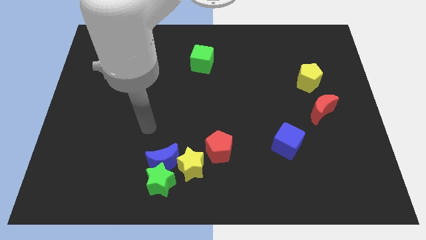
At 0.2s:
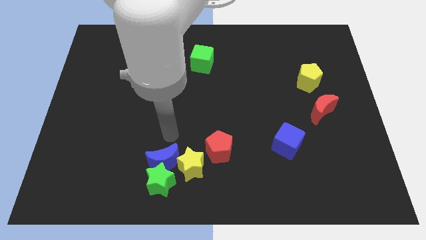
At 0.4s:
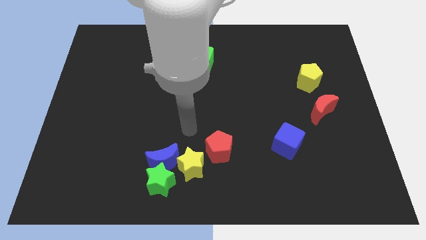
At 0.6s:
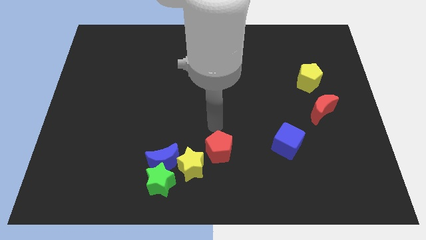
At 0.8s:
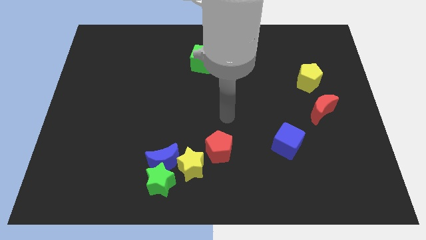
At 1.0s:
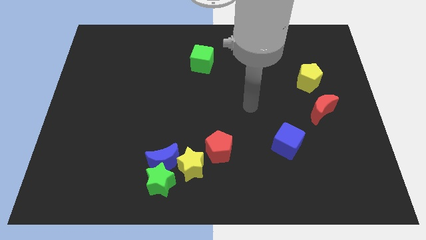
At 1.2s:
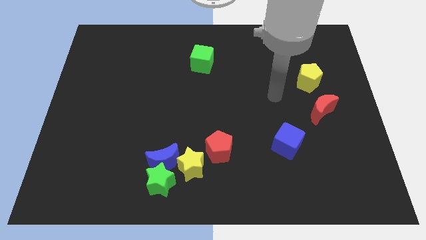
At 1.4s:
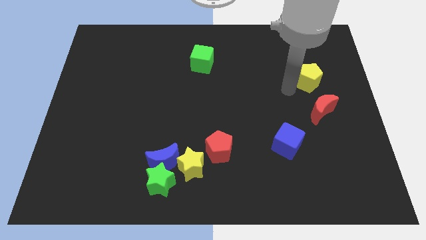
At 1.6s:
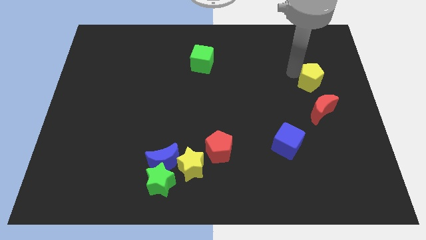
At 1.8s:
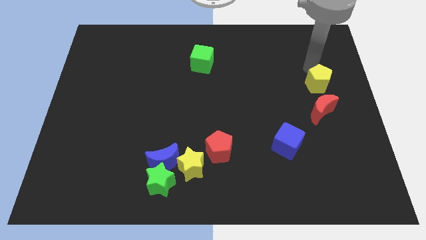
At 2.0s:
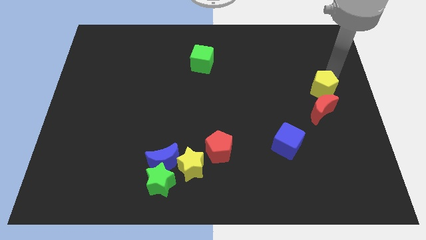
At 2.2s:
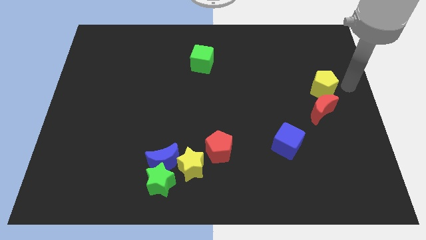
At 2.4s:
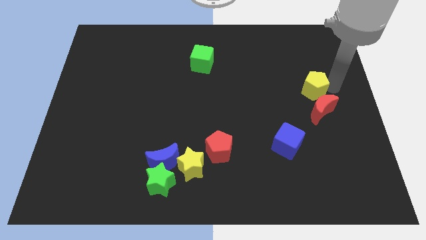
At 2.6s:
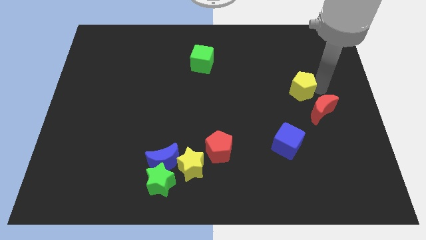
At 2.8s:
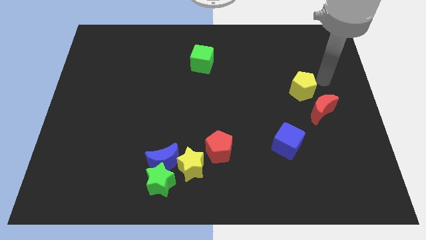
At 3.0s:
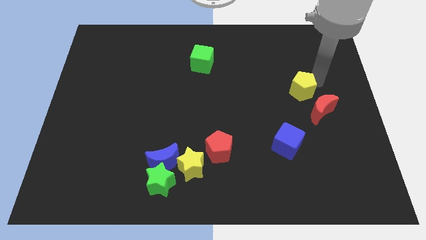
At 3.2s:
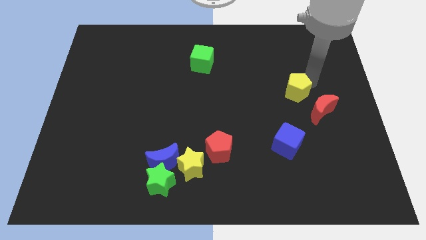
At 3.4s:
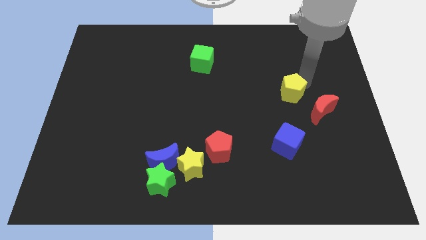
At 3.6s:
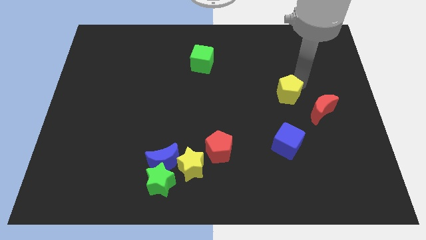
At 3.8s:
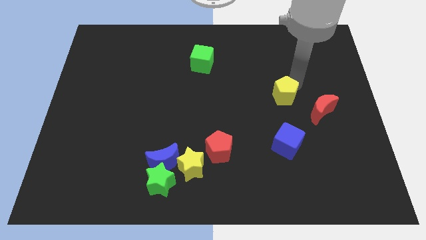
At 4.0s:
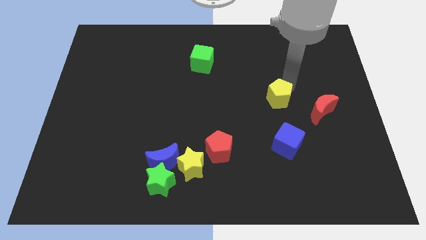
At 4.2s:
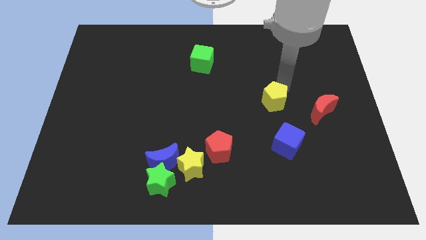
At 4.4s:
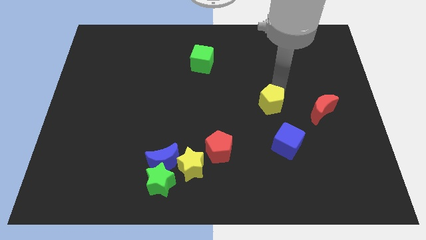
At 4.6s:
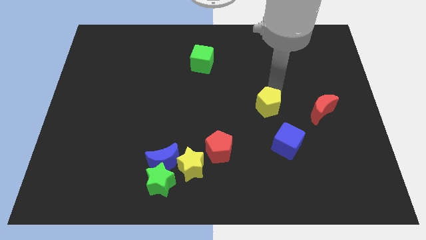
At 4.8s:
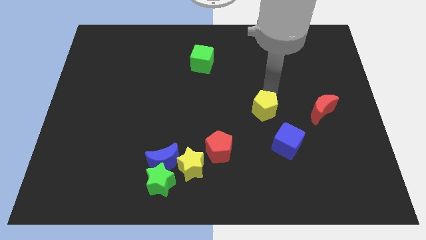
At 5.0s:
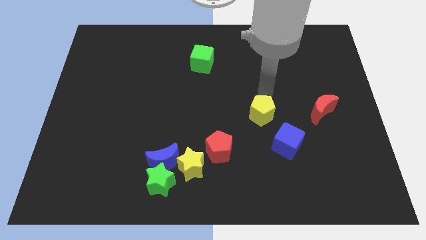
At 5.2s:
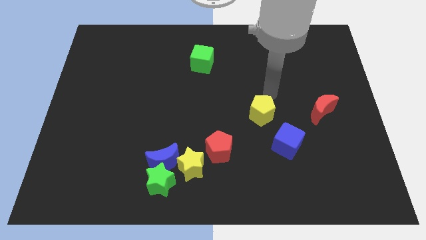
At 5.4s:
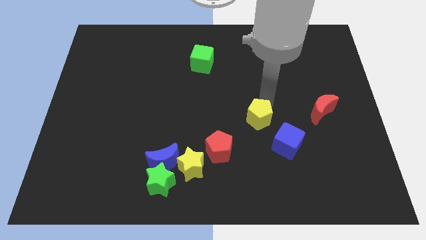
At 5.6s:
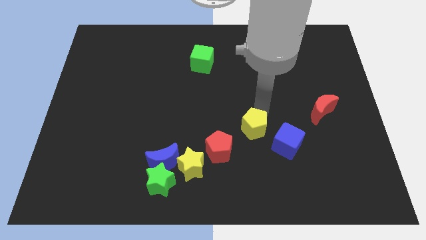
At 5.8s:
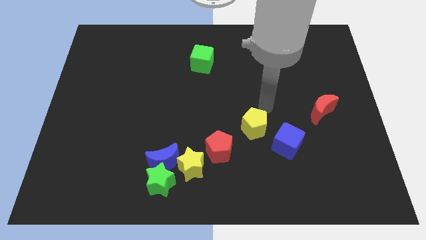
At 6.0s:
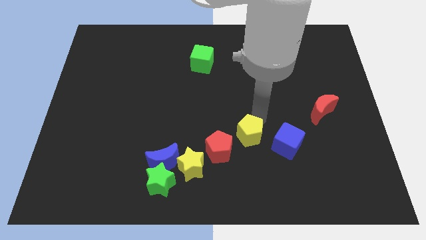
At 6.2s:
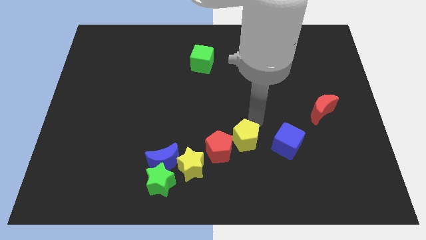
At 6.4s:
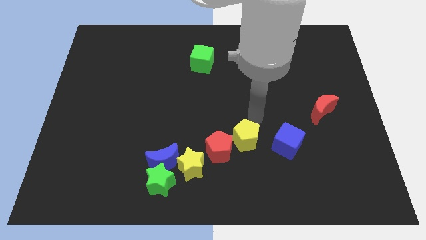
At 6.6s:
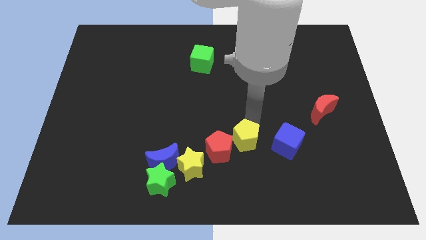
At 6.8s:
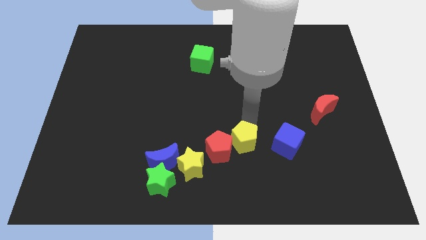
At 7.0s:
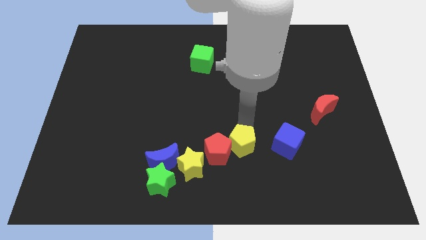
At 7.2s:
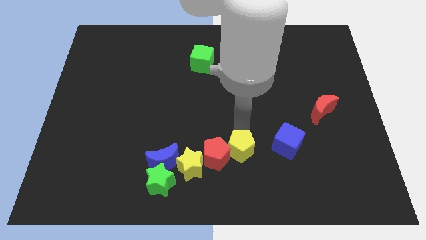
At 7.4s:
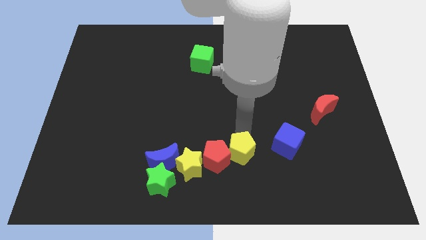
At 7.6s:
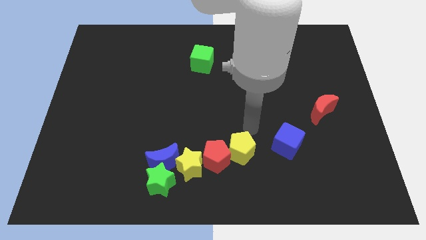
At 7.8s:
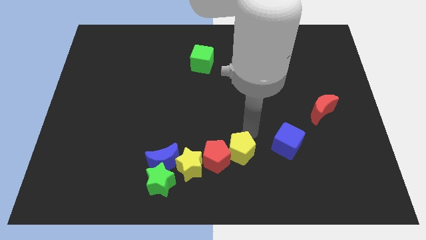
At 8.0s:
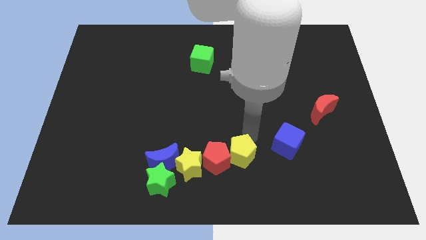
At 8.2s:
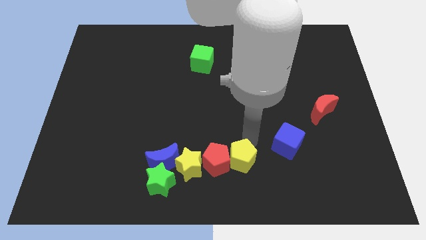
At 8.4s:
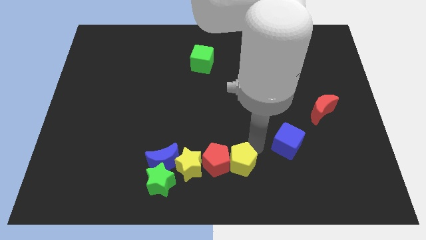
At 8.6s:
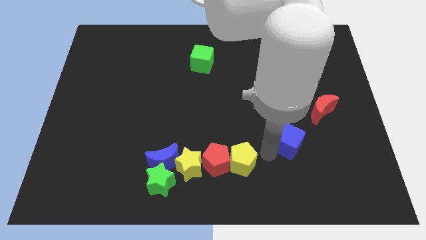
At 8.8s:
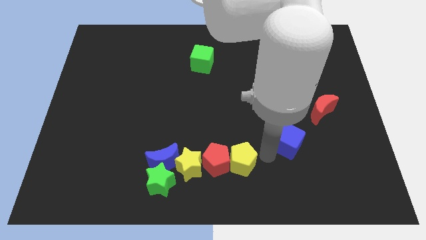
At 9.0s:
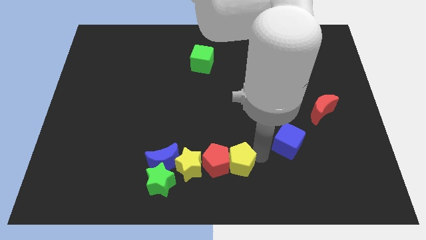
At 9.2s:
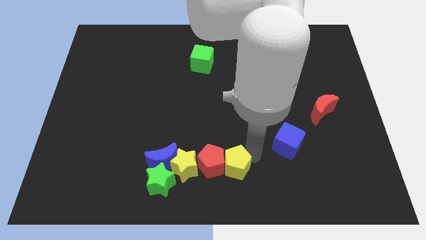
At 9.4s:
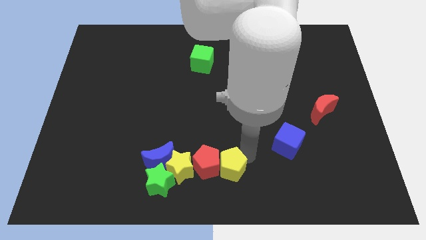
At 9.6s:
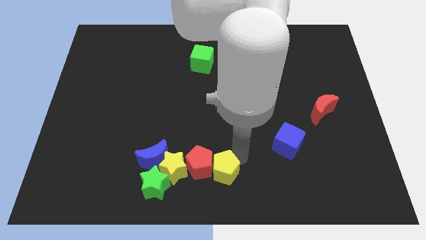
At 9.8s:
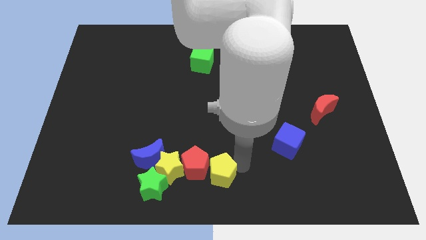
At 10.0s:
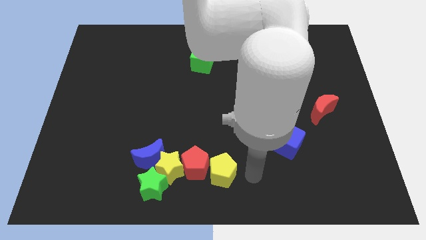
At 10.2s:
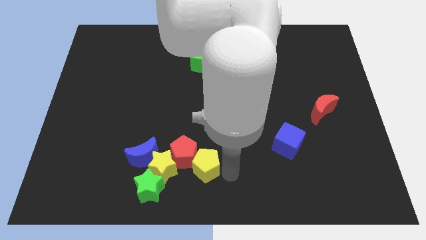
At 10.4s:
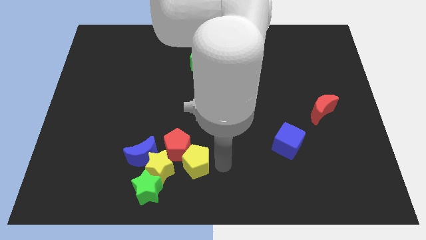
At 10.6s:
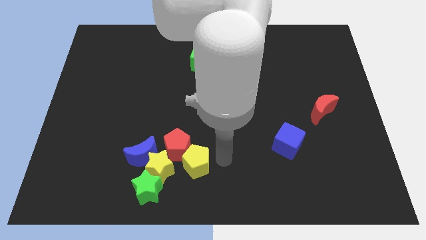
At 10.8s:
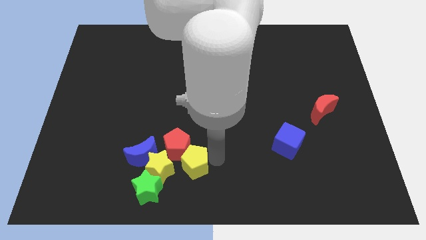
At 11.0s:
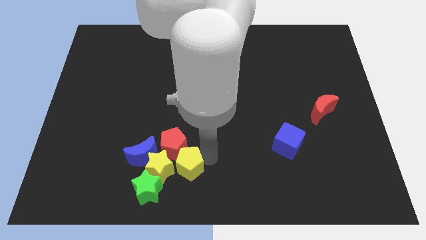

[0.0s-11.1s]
slide the yellow pentagon next to the yellow star
